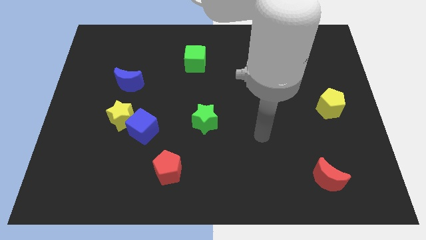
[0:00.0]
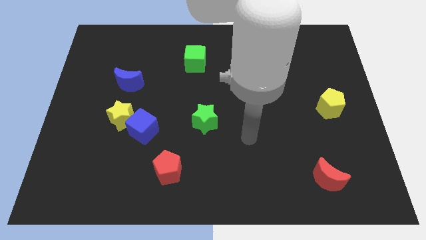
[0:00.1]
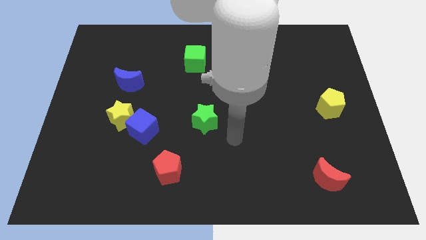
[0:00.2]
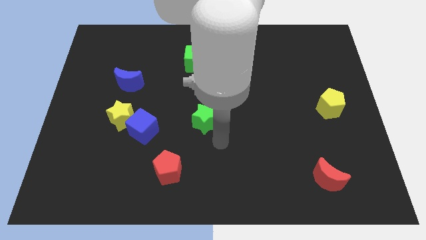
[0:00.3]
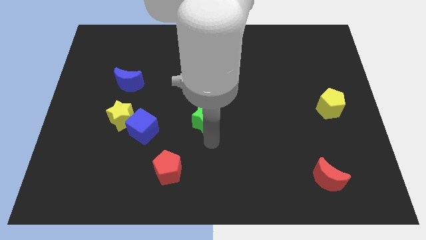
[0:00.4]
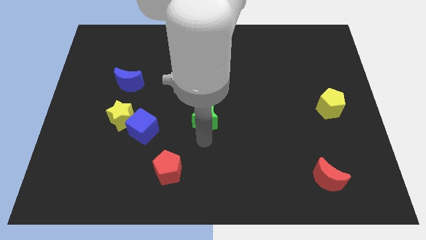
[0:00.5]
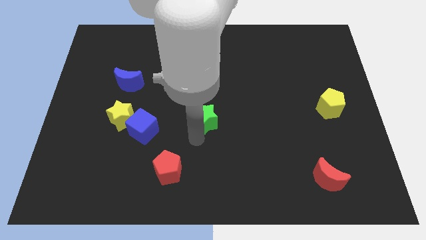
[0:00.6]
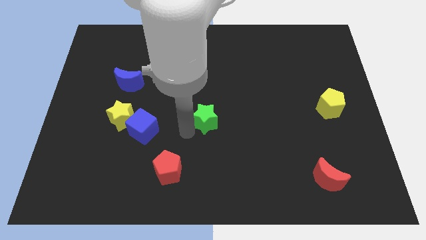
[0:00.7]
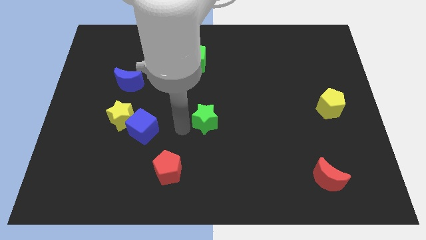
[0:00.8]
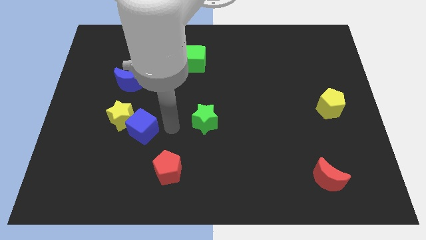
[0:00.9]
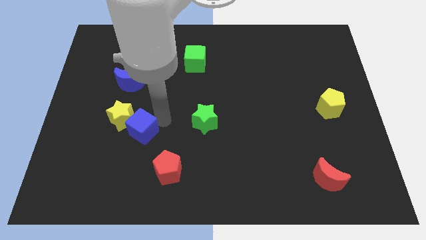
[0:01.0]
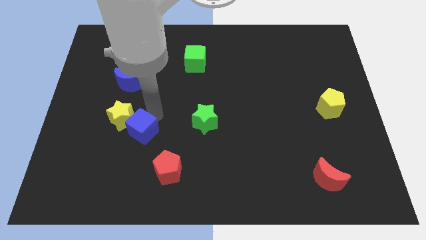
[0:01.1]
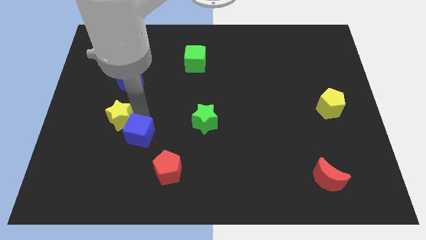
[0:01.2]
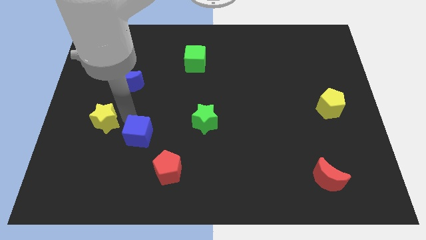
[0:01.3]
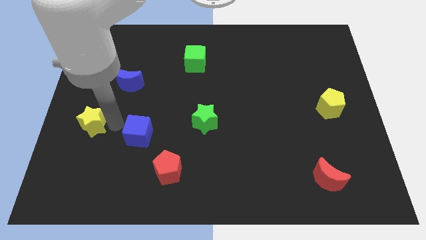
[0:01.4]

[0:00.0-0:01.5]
separate the blue cube from the yellow star

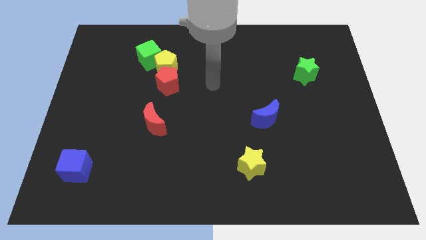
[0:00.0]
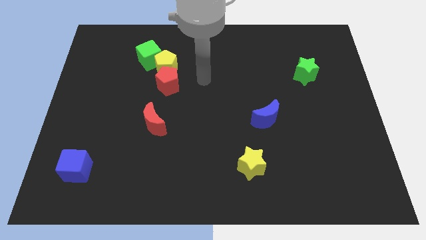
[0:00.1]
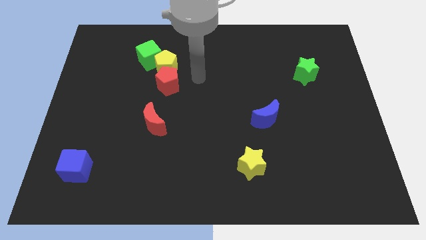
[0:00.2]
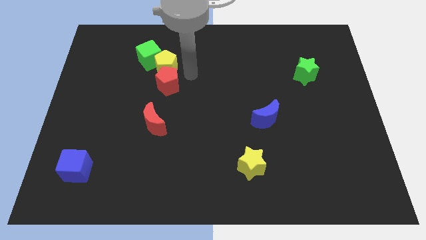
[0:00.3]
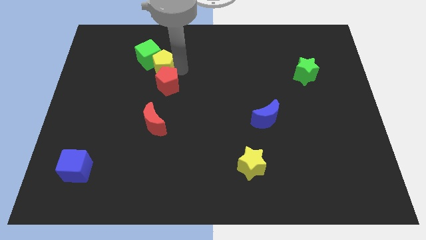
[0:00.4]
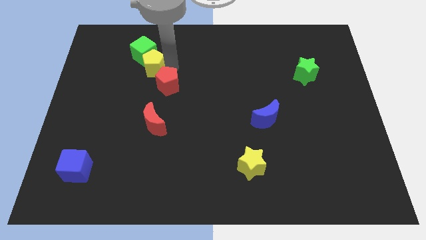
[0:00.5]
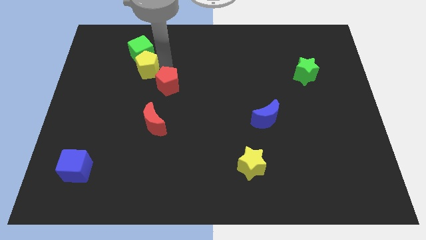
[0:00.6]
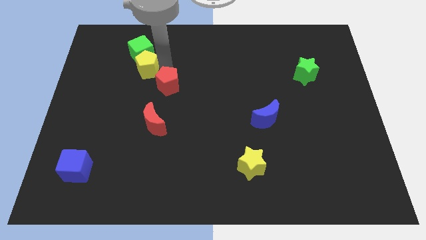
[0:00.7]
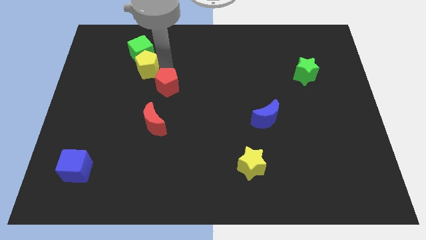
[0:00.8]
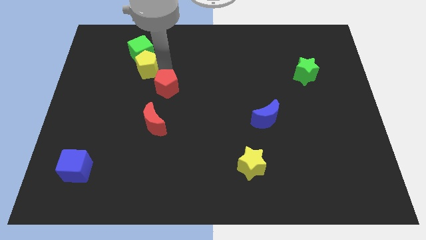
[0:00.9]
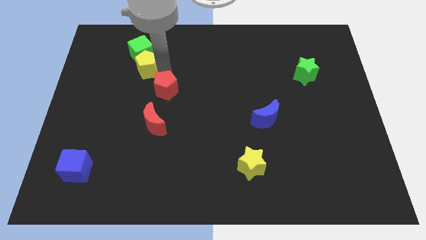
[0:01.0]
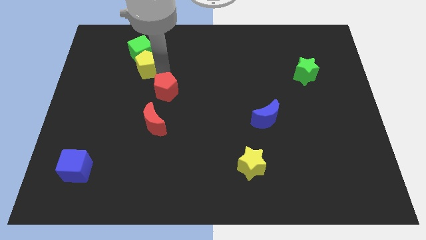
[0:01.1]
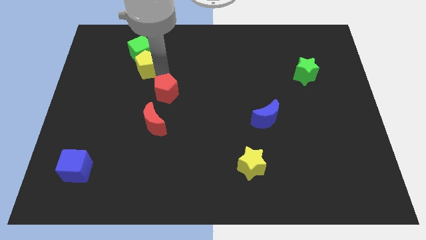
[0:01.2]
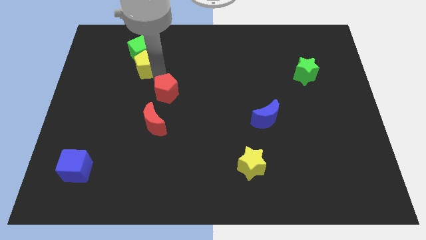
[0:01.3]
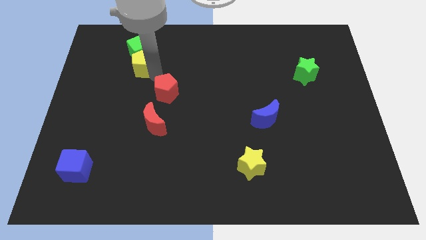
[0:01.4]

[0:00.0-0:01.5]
separate the red pentagon from the yellow pentagon

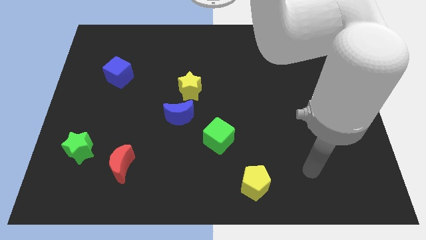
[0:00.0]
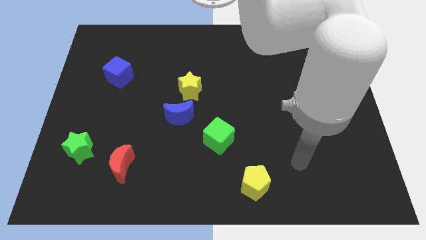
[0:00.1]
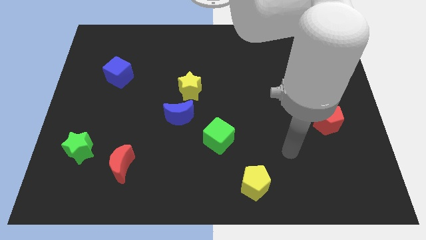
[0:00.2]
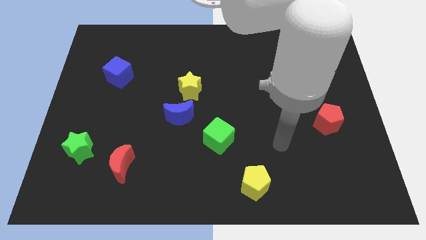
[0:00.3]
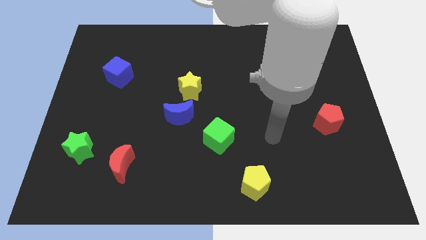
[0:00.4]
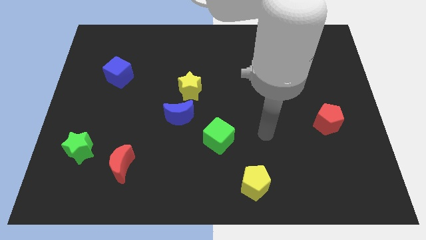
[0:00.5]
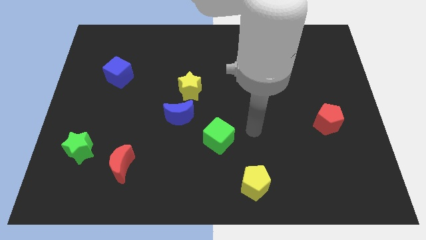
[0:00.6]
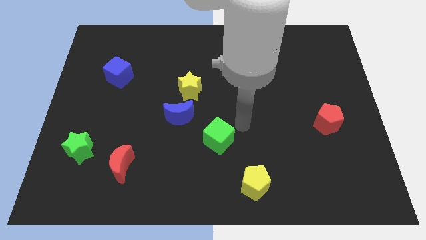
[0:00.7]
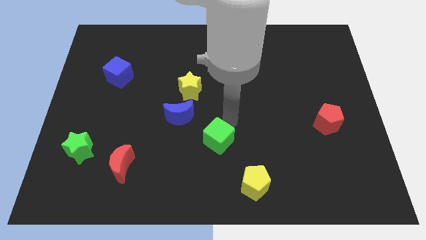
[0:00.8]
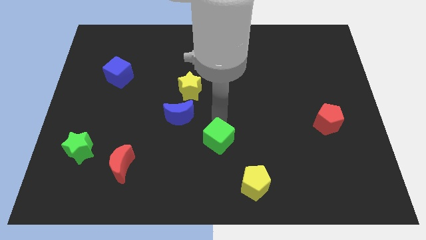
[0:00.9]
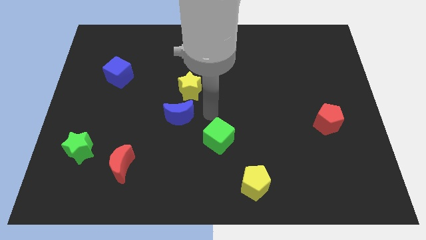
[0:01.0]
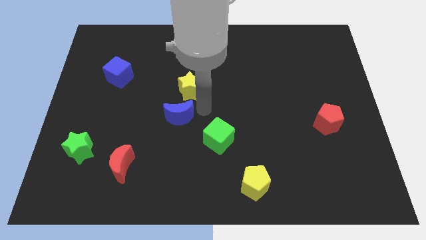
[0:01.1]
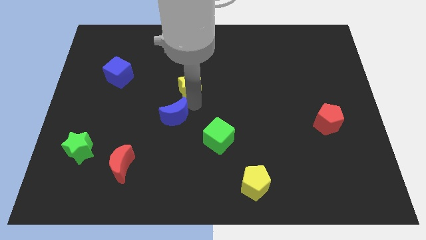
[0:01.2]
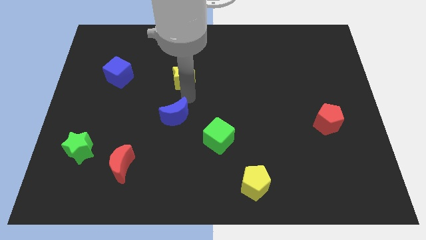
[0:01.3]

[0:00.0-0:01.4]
move the blue moon away from the yellow star

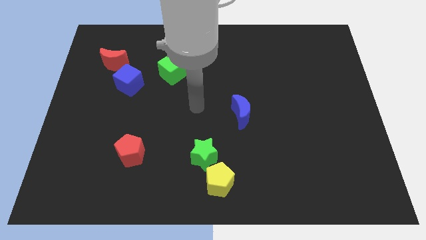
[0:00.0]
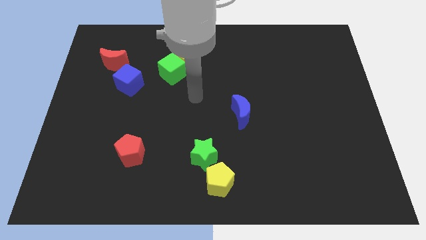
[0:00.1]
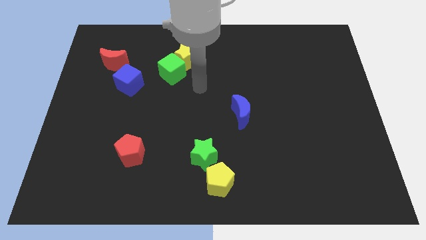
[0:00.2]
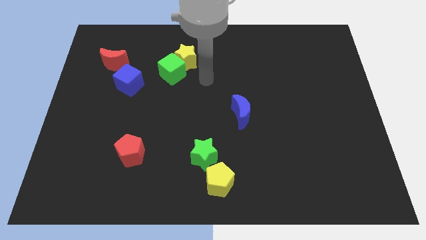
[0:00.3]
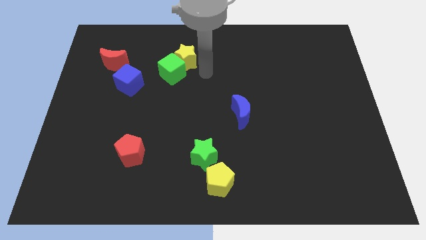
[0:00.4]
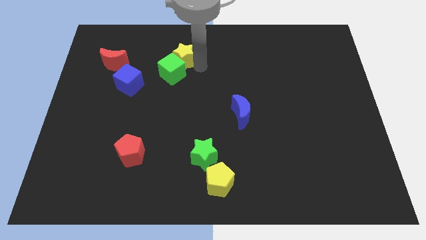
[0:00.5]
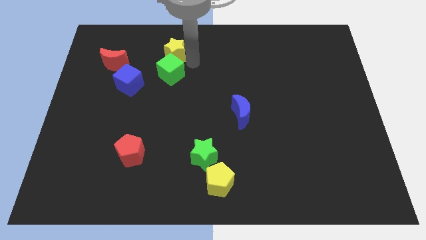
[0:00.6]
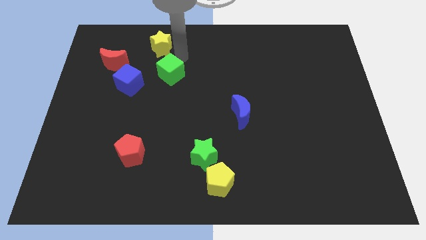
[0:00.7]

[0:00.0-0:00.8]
separate the green cube from the yellow star

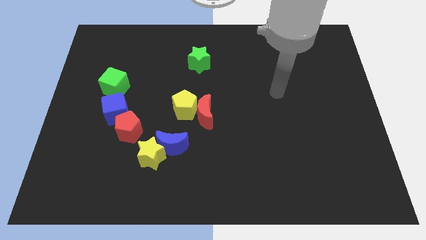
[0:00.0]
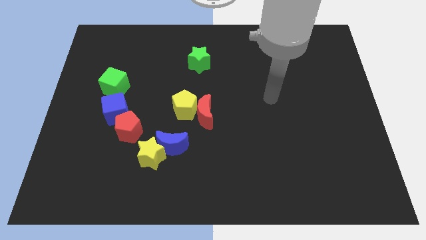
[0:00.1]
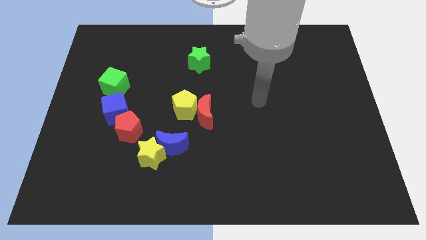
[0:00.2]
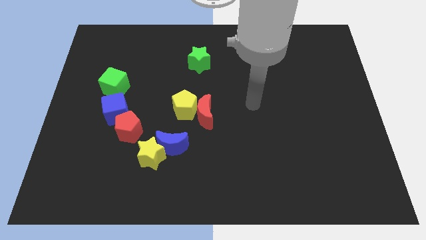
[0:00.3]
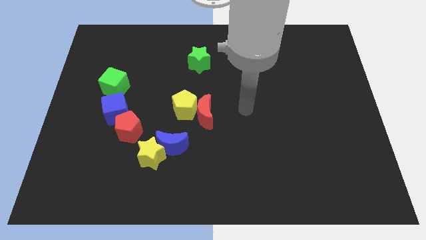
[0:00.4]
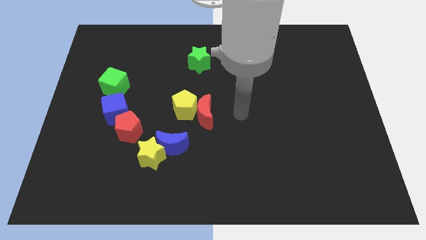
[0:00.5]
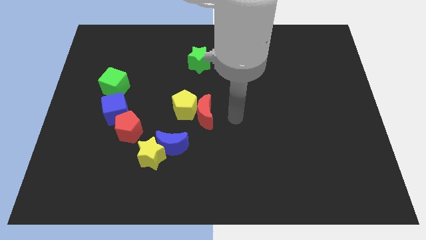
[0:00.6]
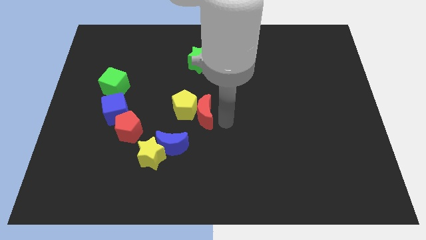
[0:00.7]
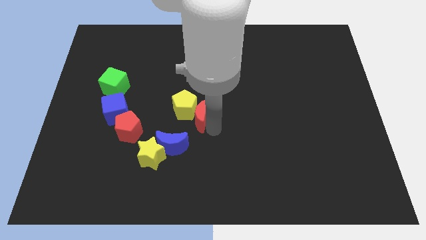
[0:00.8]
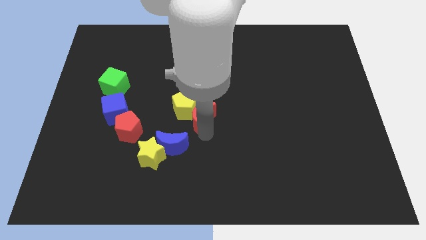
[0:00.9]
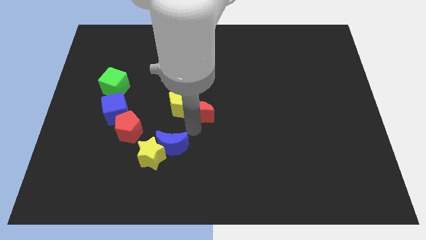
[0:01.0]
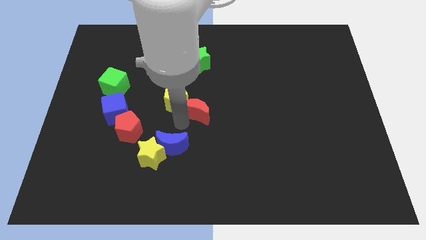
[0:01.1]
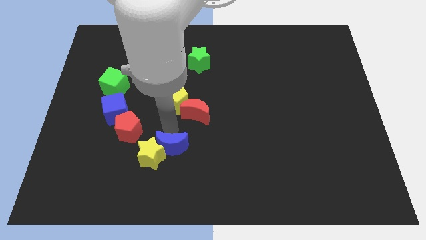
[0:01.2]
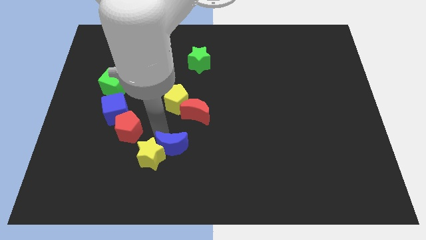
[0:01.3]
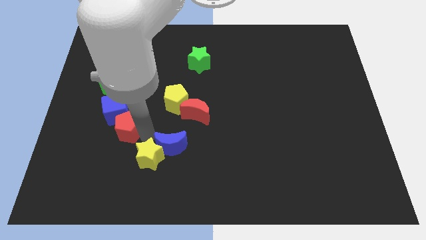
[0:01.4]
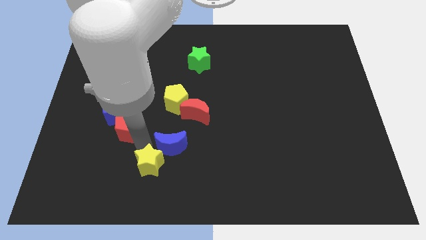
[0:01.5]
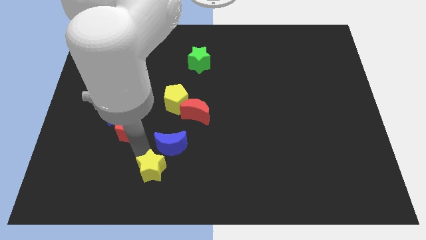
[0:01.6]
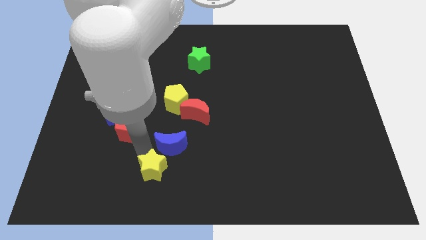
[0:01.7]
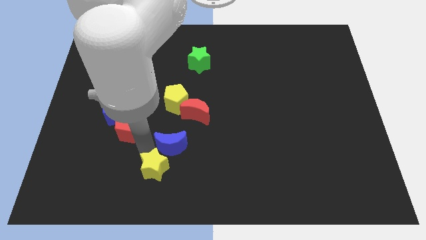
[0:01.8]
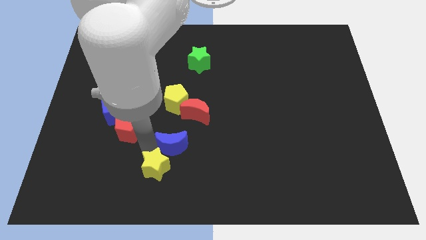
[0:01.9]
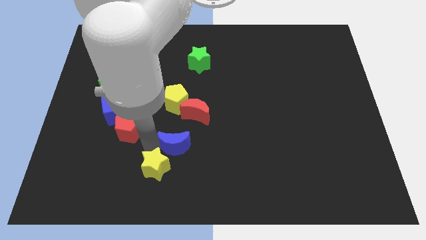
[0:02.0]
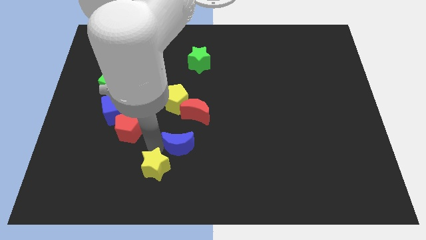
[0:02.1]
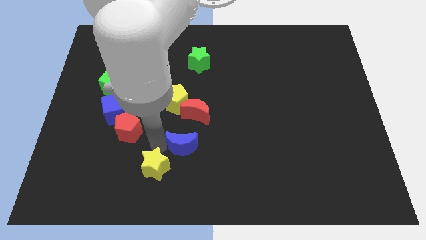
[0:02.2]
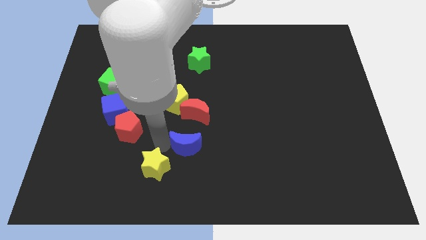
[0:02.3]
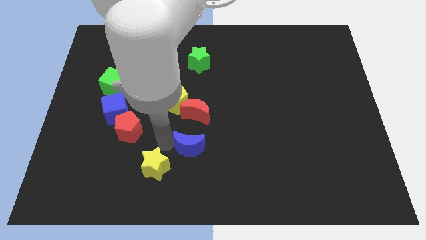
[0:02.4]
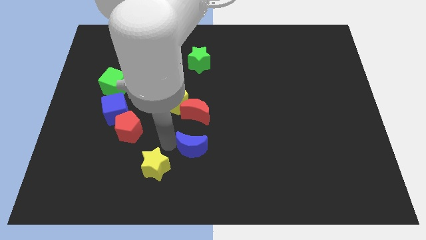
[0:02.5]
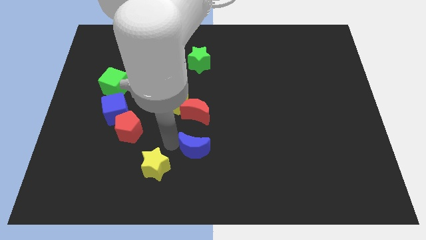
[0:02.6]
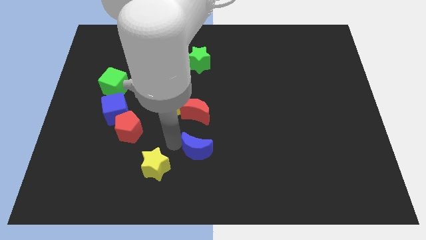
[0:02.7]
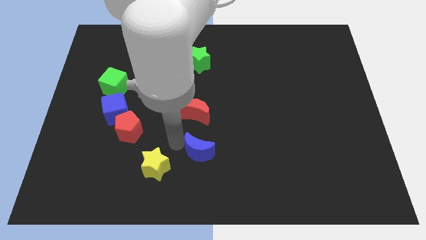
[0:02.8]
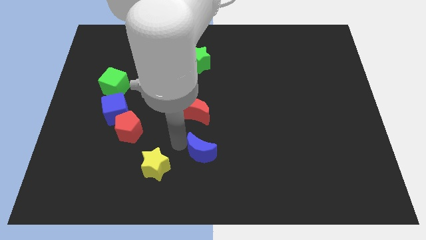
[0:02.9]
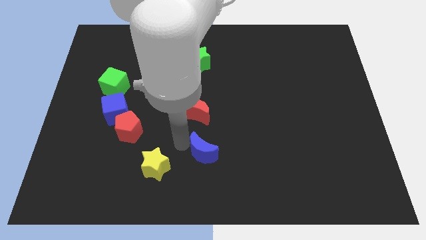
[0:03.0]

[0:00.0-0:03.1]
pull the blue moon apart from the yellow star

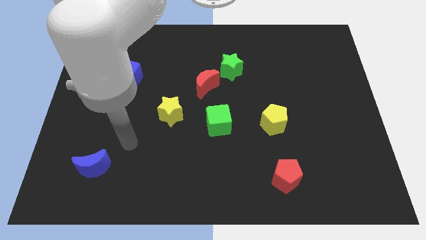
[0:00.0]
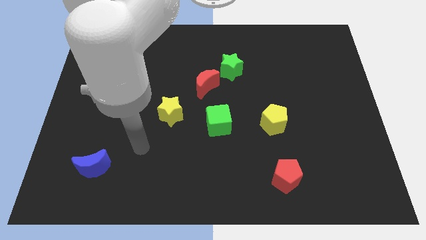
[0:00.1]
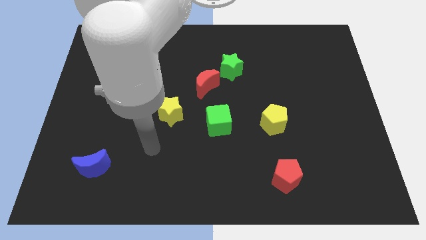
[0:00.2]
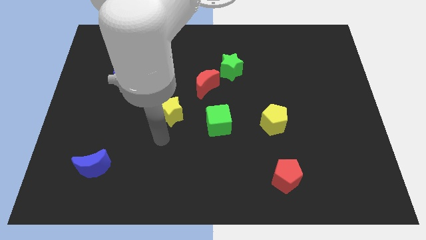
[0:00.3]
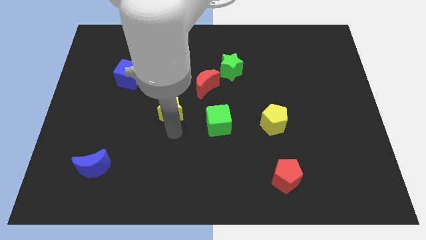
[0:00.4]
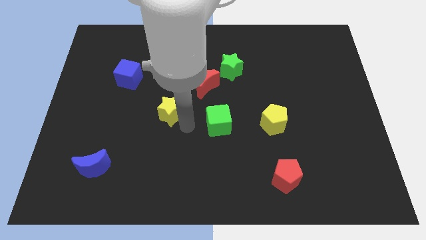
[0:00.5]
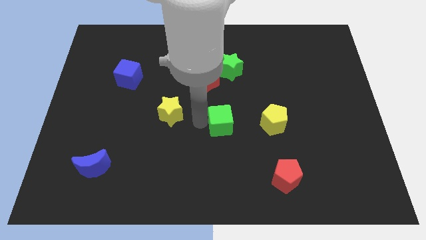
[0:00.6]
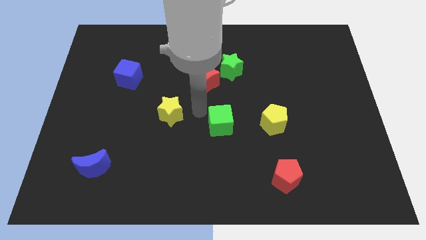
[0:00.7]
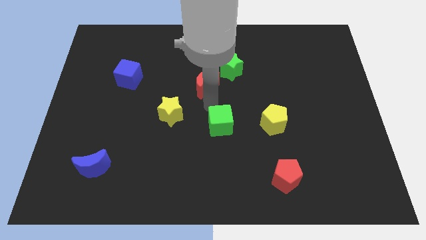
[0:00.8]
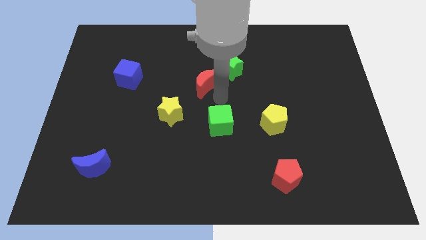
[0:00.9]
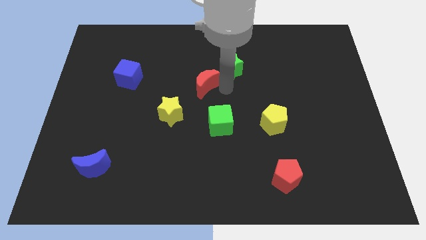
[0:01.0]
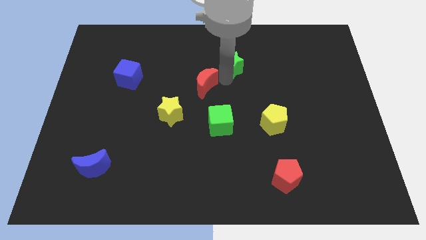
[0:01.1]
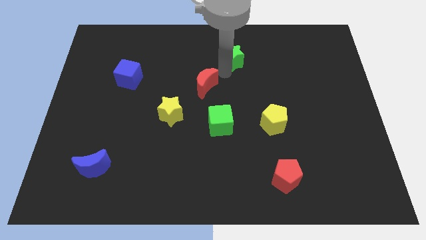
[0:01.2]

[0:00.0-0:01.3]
move the red moon away from the green star
